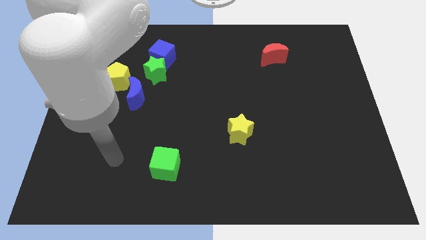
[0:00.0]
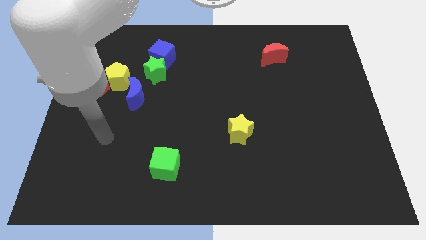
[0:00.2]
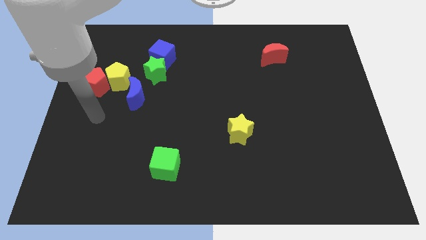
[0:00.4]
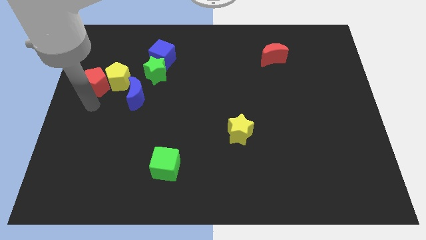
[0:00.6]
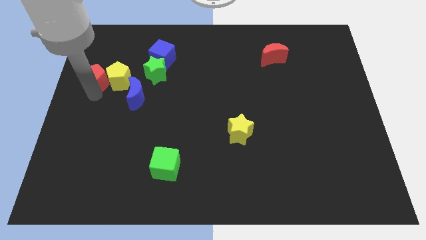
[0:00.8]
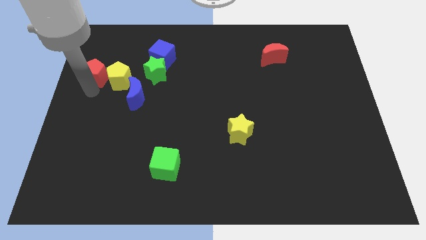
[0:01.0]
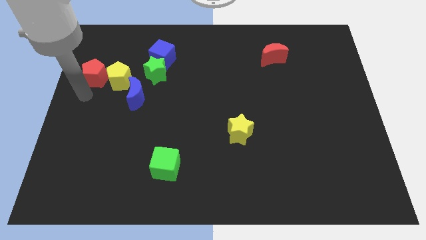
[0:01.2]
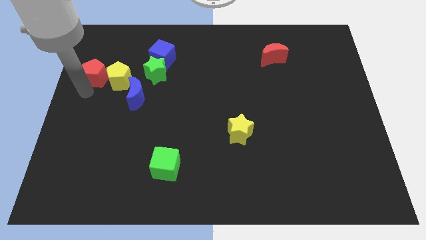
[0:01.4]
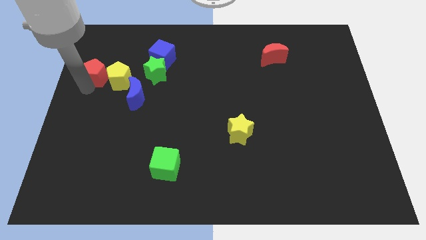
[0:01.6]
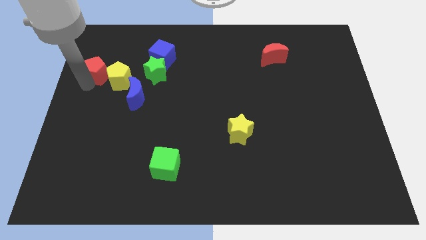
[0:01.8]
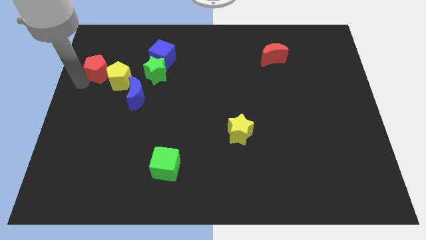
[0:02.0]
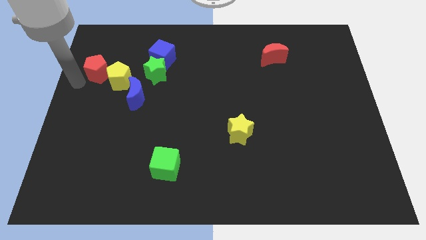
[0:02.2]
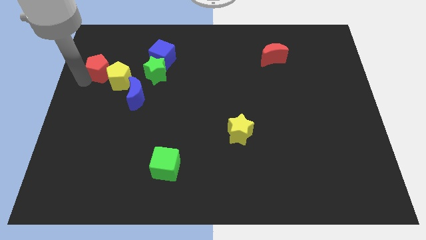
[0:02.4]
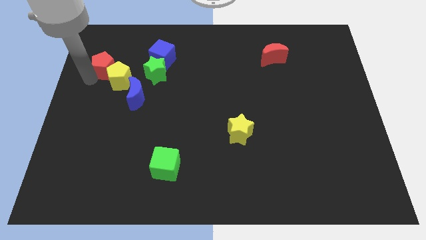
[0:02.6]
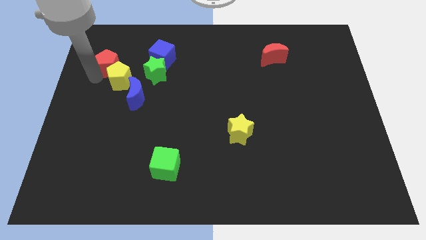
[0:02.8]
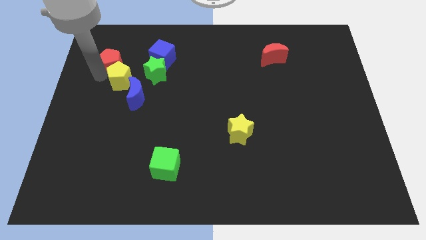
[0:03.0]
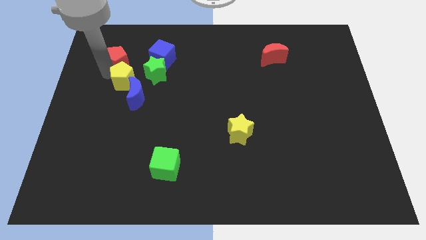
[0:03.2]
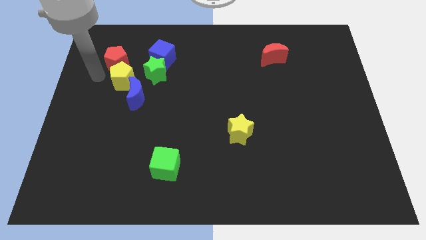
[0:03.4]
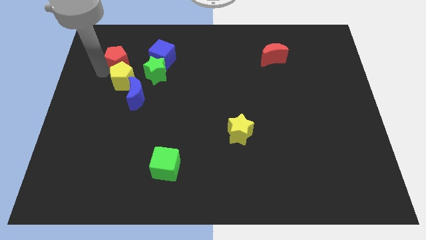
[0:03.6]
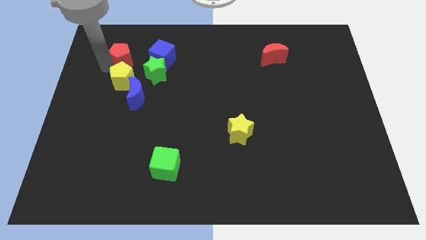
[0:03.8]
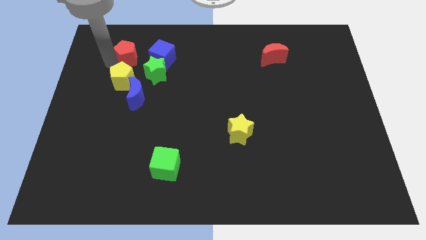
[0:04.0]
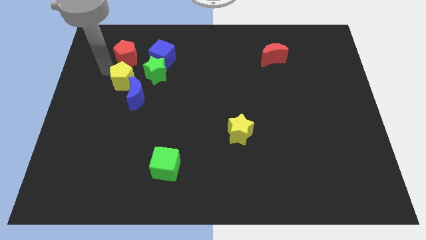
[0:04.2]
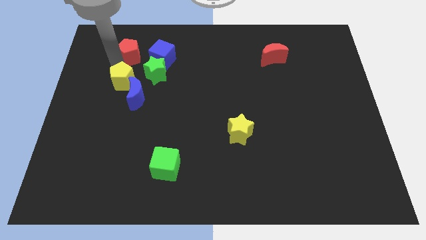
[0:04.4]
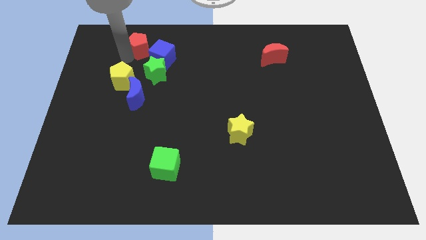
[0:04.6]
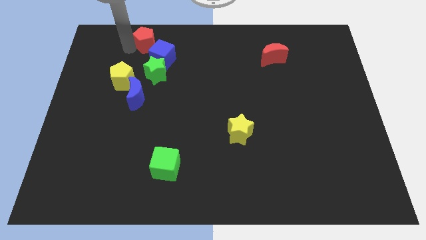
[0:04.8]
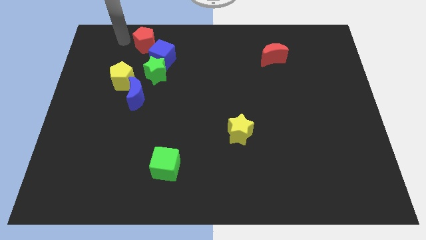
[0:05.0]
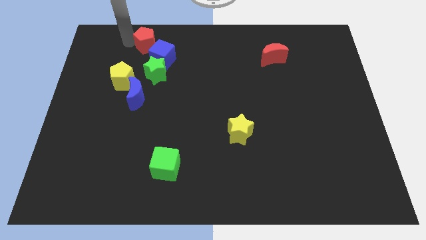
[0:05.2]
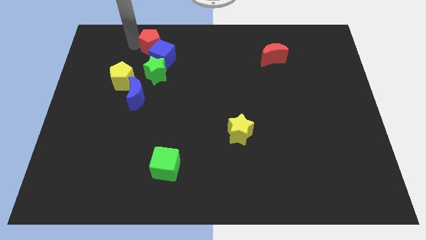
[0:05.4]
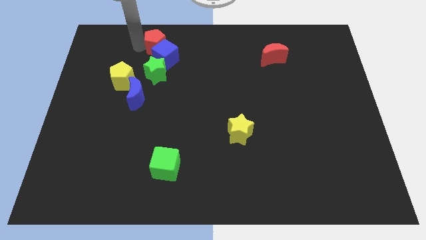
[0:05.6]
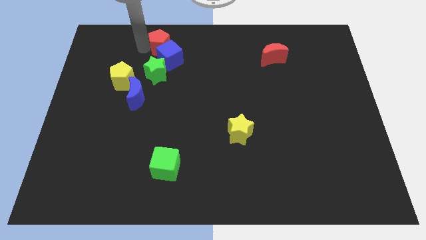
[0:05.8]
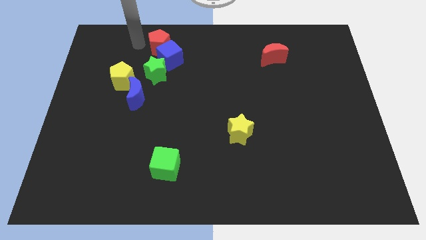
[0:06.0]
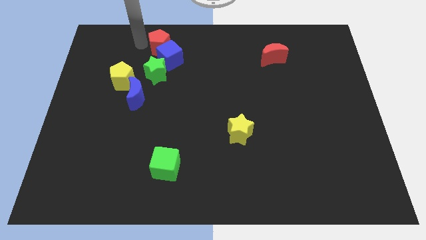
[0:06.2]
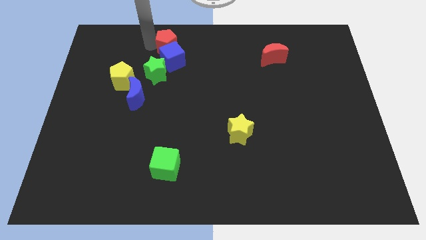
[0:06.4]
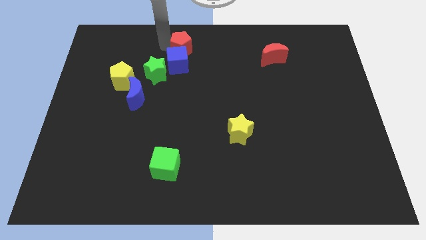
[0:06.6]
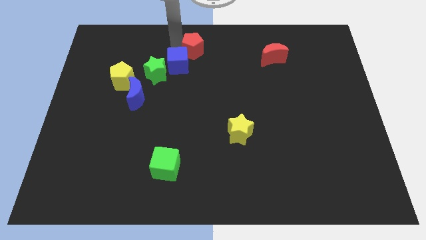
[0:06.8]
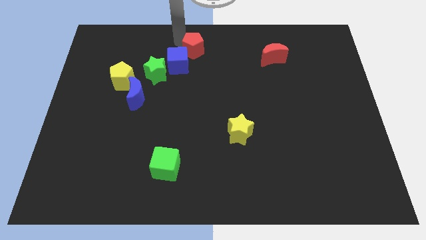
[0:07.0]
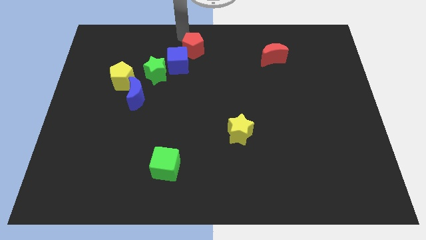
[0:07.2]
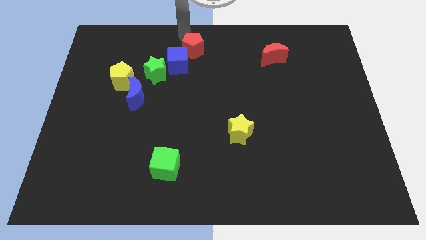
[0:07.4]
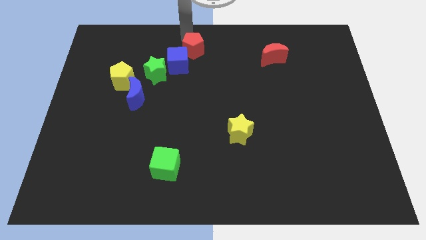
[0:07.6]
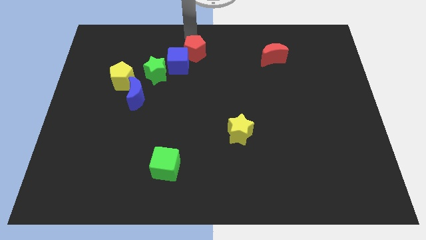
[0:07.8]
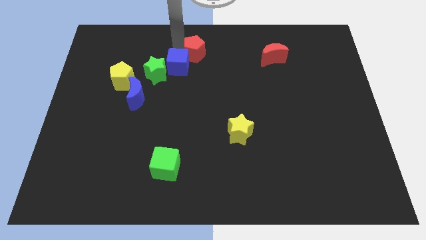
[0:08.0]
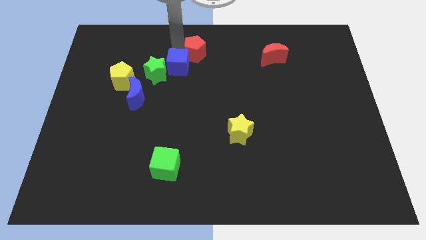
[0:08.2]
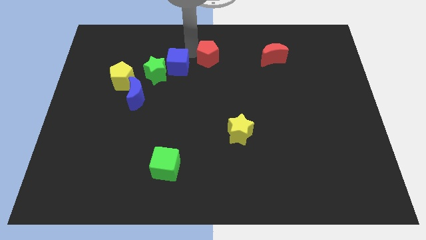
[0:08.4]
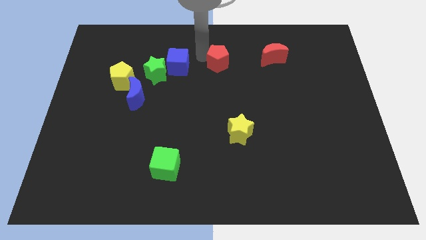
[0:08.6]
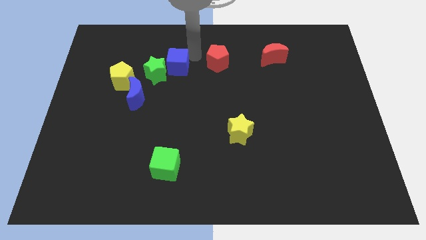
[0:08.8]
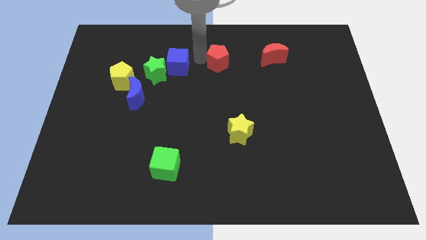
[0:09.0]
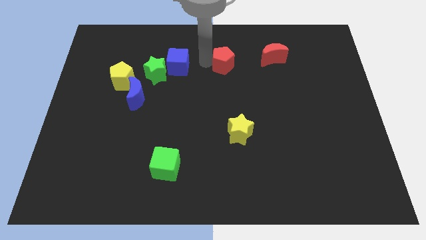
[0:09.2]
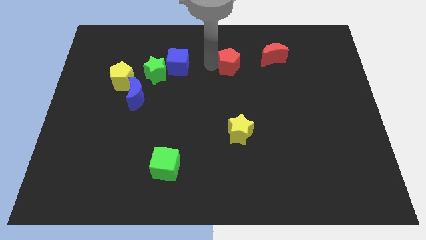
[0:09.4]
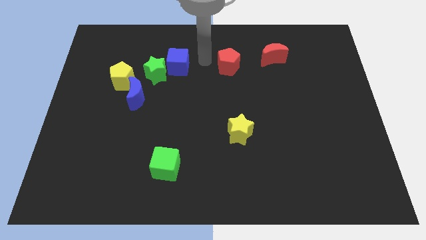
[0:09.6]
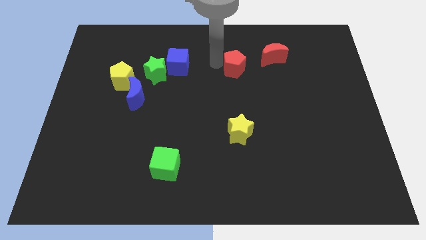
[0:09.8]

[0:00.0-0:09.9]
move the red pentagon diagonally down and to the left of the red moon

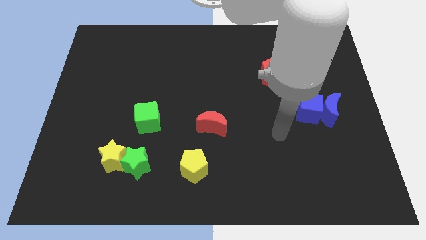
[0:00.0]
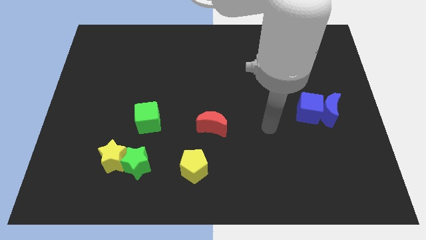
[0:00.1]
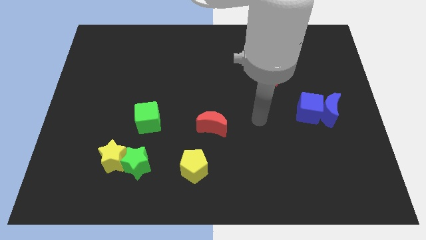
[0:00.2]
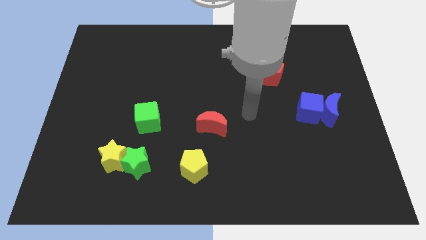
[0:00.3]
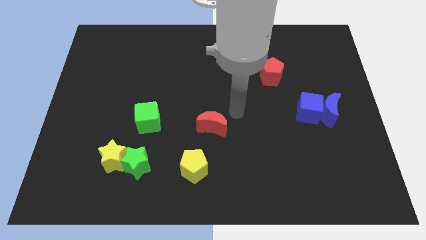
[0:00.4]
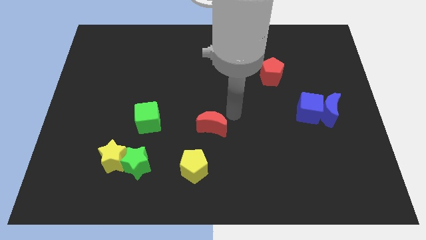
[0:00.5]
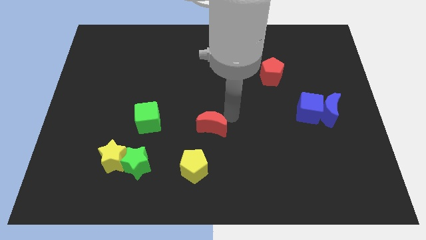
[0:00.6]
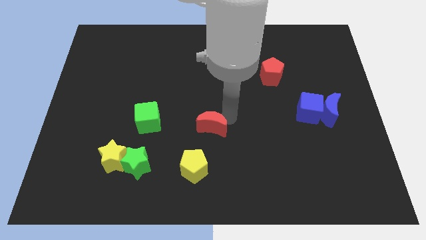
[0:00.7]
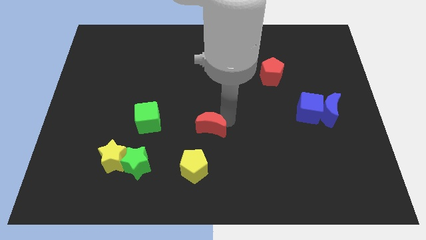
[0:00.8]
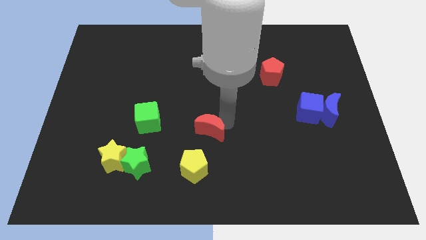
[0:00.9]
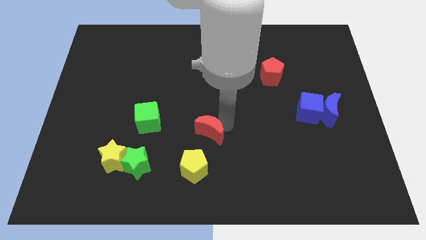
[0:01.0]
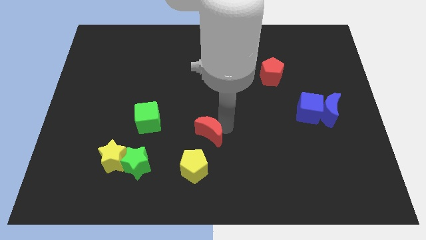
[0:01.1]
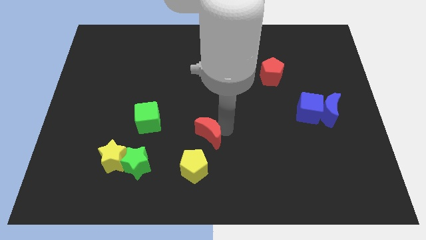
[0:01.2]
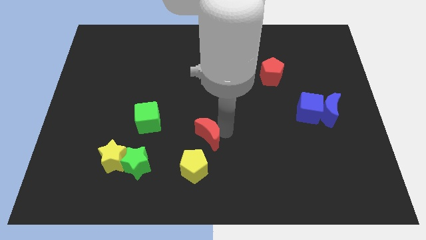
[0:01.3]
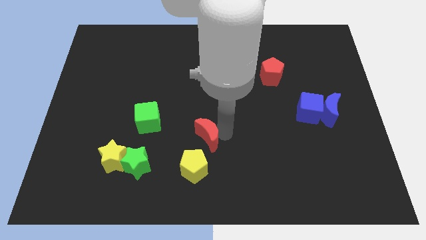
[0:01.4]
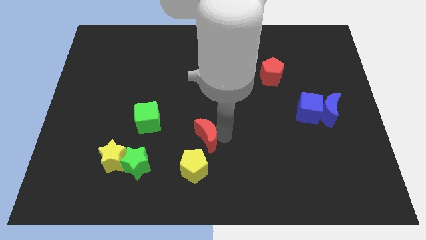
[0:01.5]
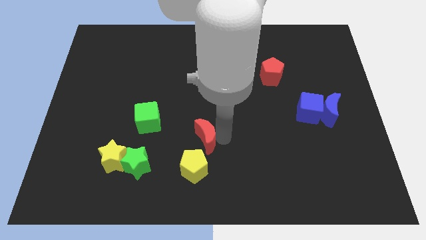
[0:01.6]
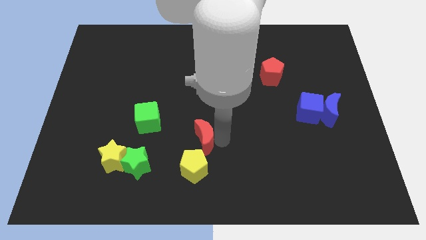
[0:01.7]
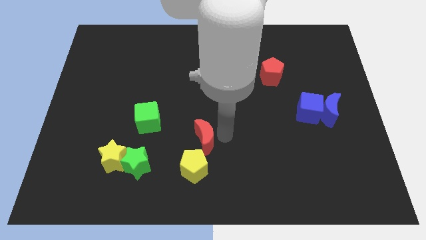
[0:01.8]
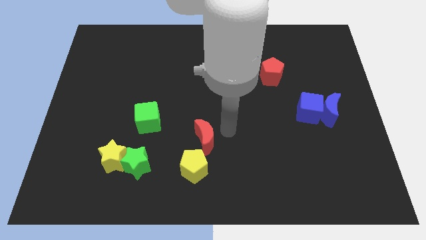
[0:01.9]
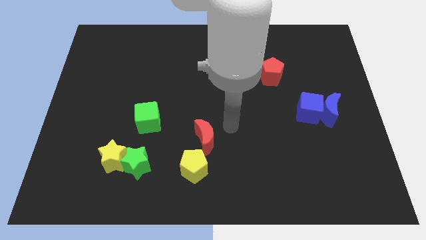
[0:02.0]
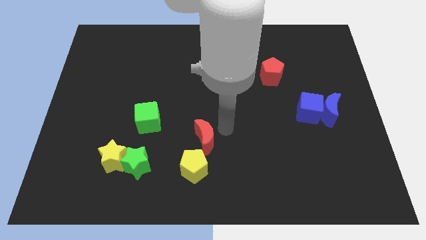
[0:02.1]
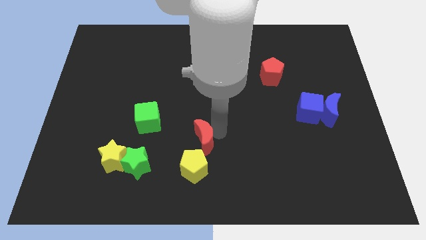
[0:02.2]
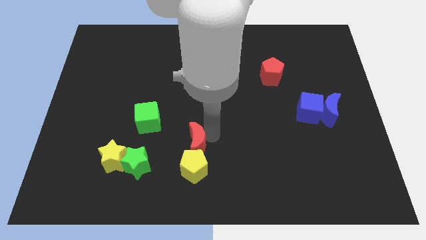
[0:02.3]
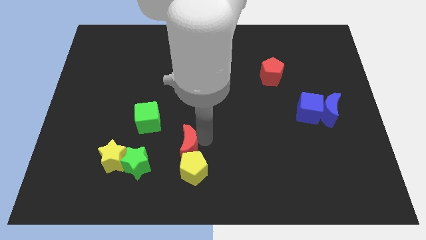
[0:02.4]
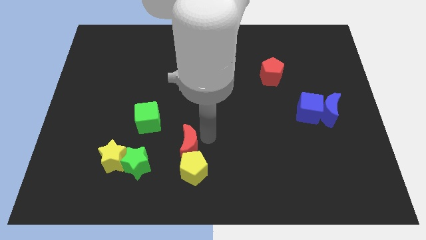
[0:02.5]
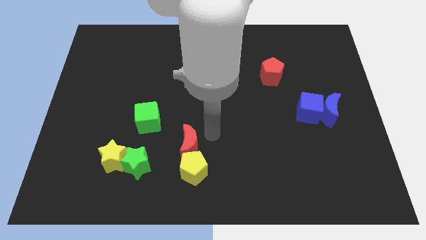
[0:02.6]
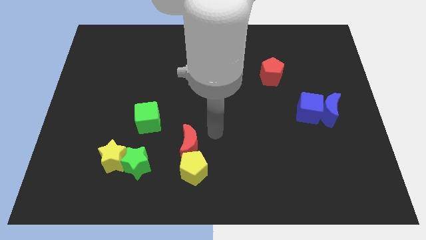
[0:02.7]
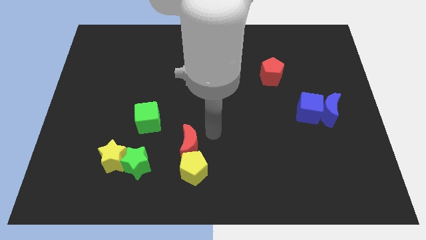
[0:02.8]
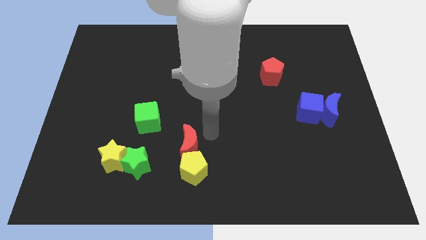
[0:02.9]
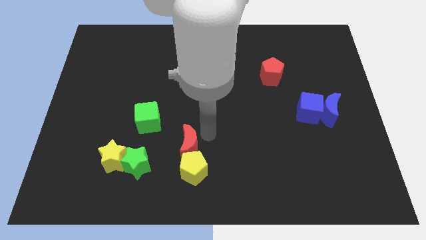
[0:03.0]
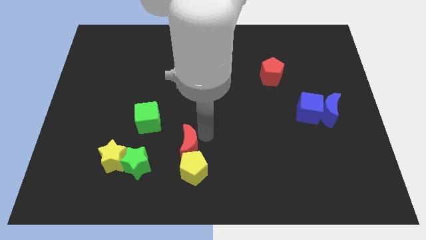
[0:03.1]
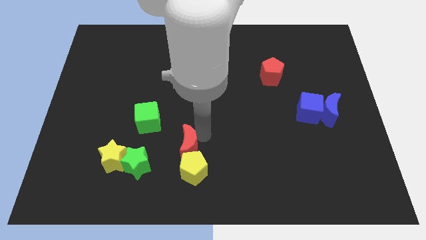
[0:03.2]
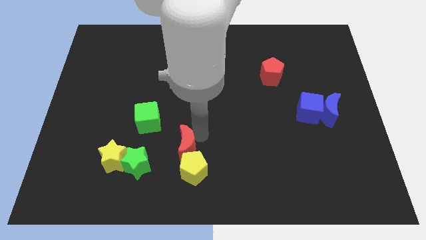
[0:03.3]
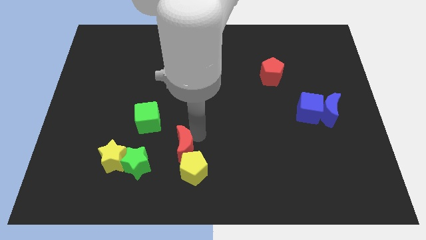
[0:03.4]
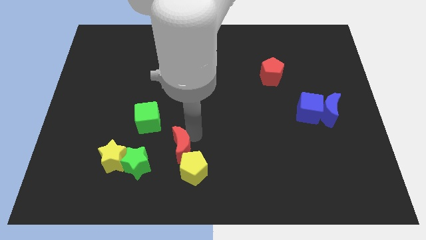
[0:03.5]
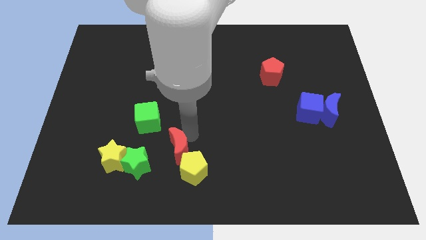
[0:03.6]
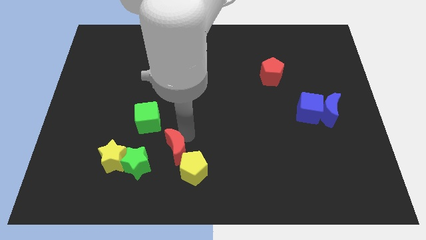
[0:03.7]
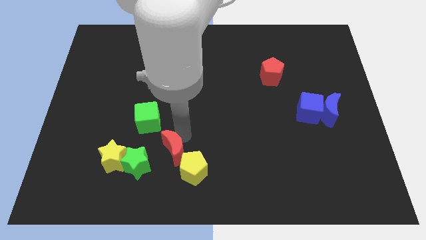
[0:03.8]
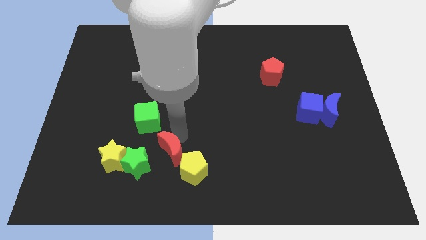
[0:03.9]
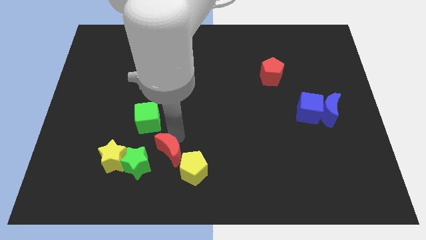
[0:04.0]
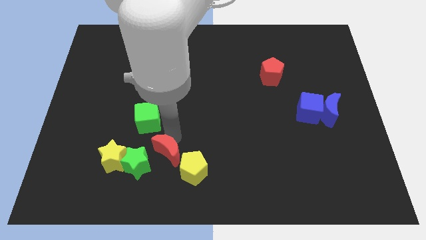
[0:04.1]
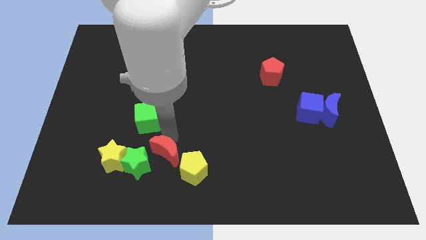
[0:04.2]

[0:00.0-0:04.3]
push the red moon to the bottom of the green cube
